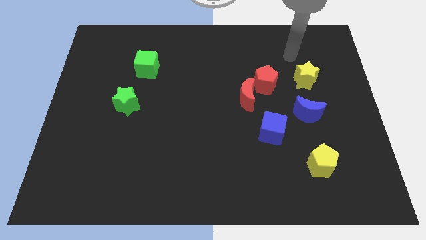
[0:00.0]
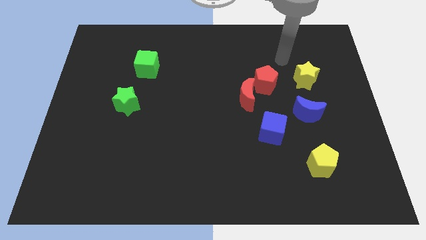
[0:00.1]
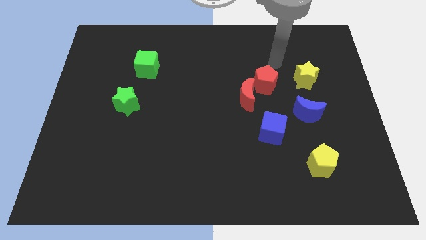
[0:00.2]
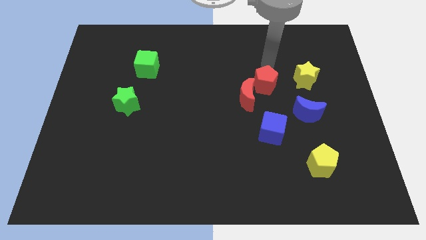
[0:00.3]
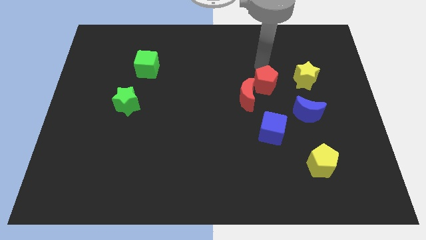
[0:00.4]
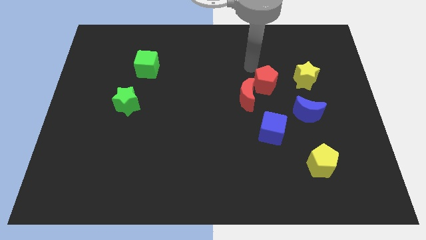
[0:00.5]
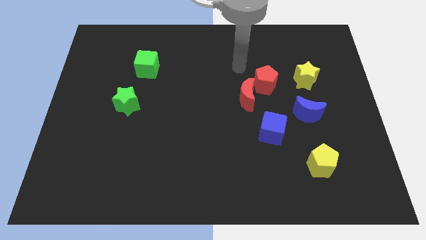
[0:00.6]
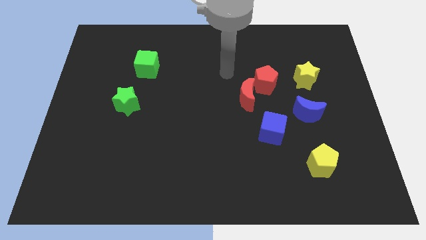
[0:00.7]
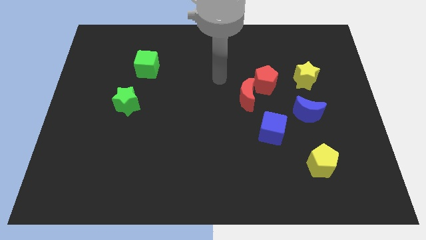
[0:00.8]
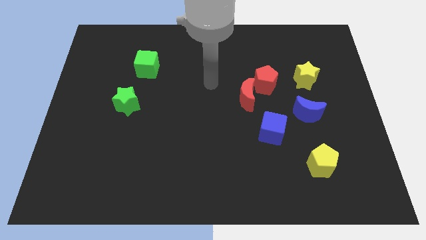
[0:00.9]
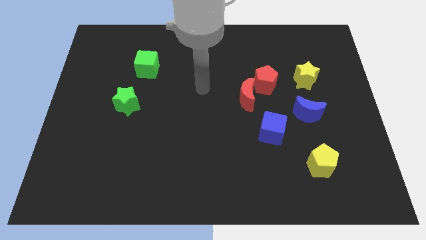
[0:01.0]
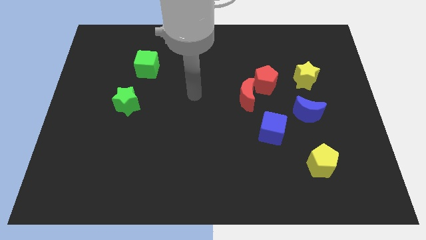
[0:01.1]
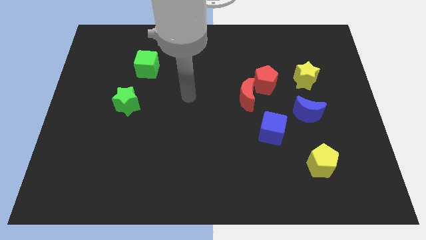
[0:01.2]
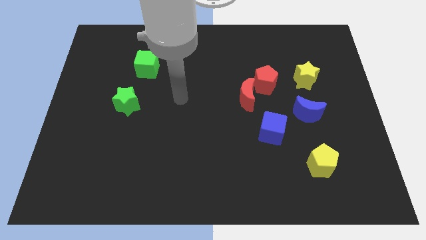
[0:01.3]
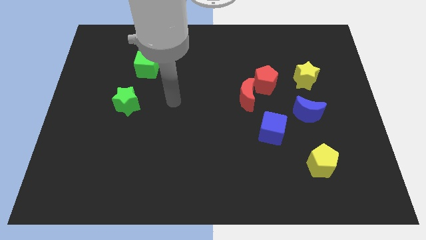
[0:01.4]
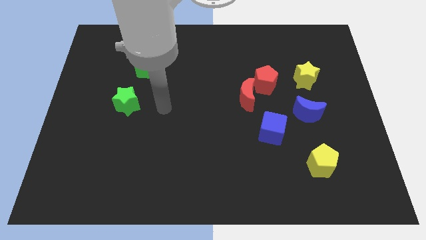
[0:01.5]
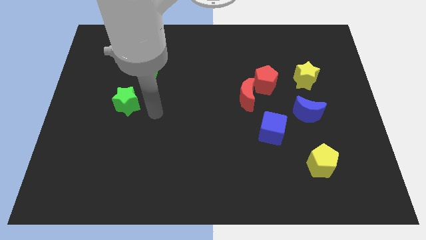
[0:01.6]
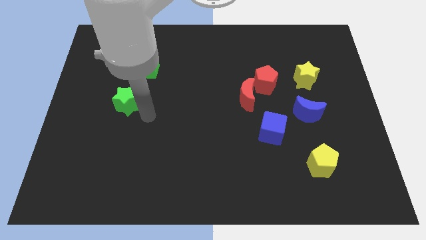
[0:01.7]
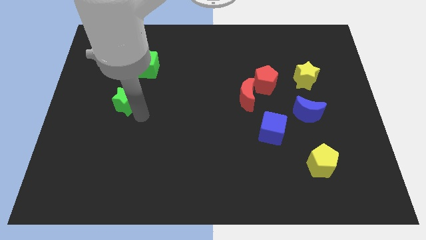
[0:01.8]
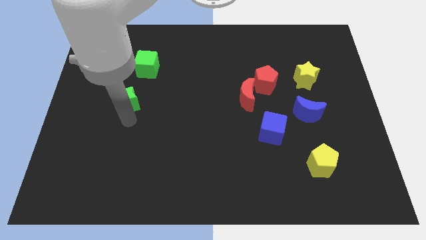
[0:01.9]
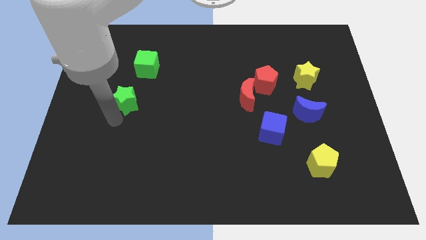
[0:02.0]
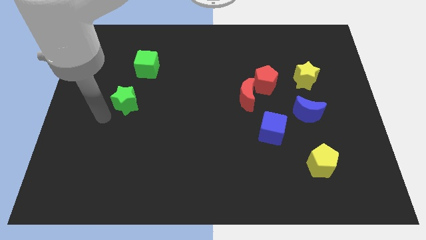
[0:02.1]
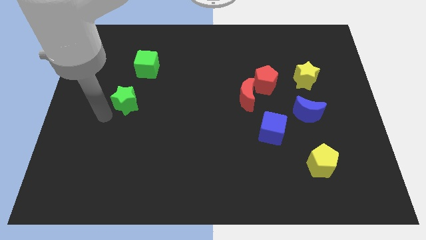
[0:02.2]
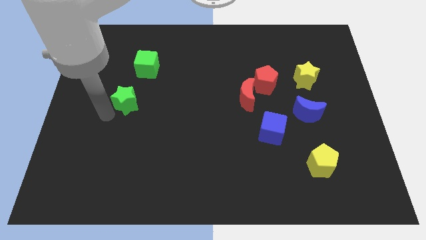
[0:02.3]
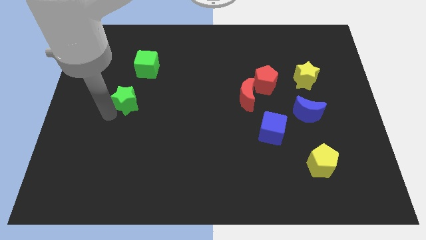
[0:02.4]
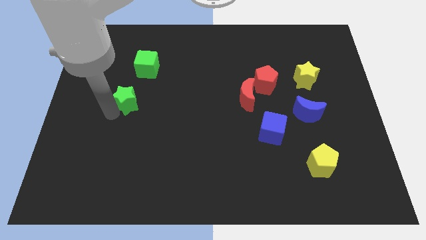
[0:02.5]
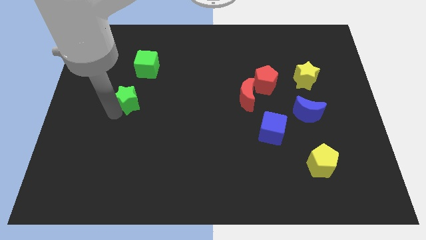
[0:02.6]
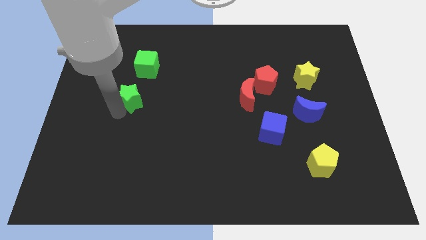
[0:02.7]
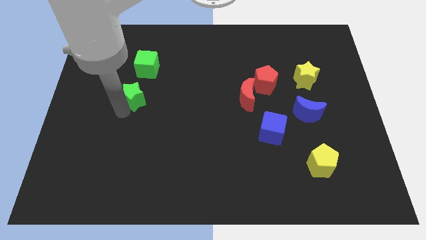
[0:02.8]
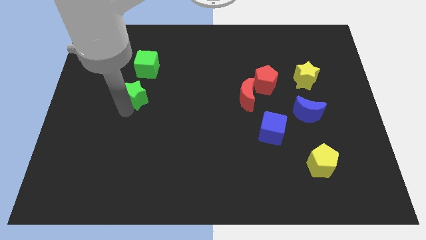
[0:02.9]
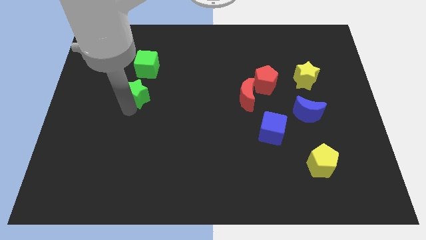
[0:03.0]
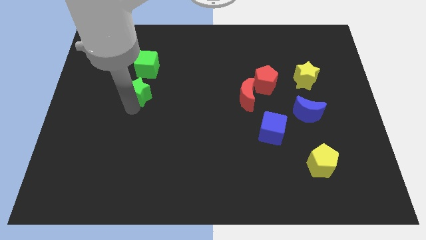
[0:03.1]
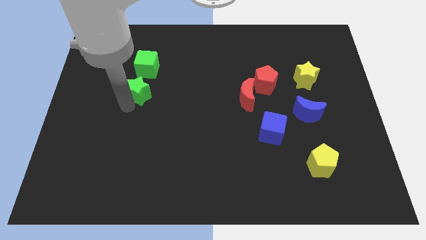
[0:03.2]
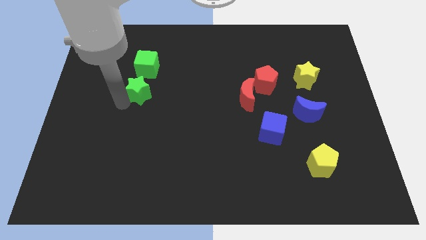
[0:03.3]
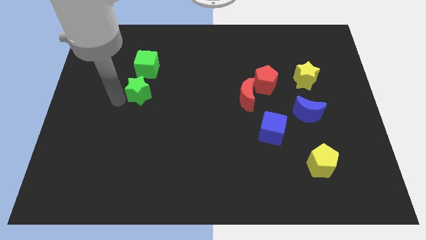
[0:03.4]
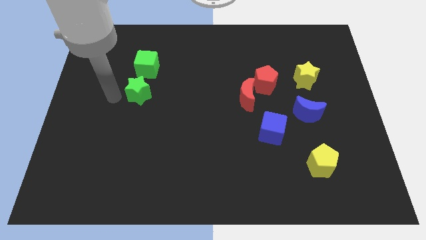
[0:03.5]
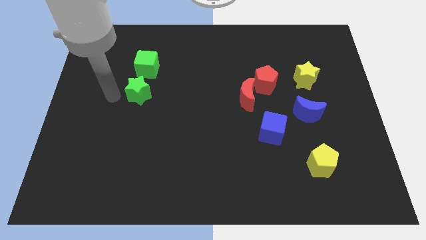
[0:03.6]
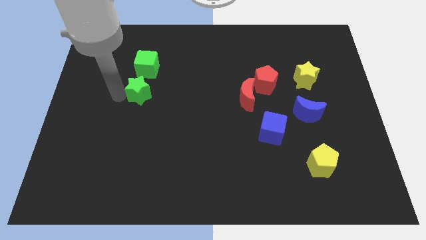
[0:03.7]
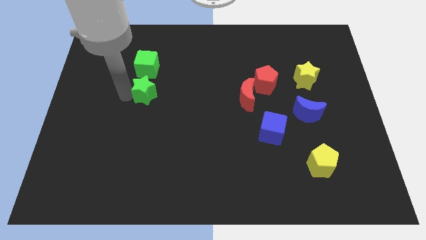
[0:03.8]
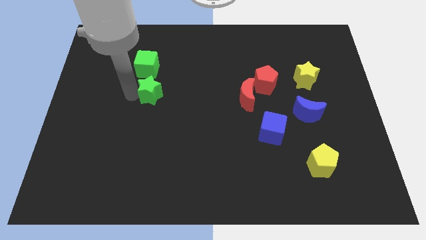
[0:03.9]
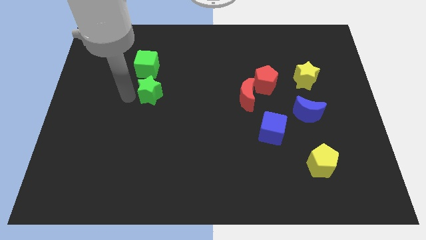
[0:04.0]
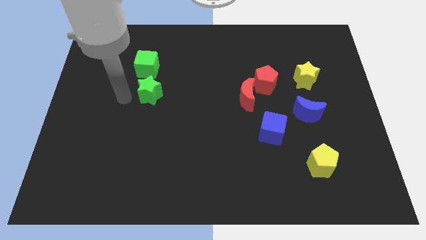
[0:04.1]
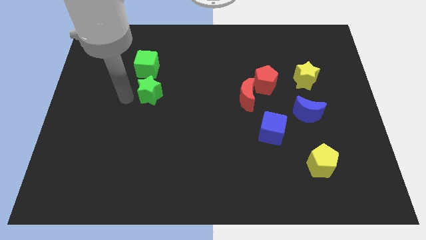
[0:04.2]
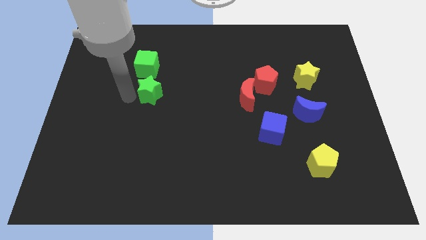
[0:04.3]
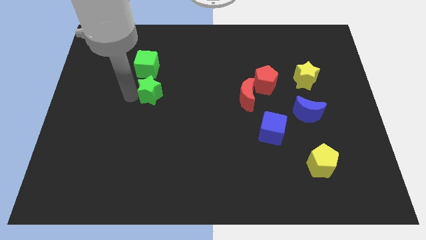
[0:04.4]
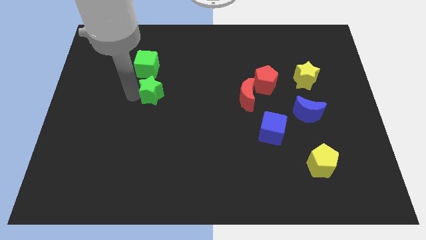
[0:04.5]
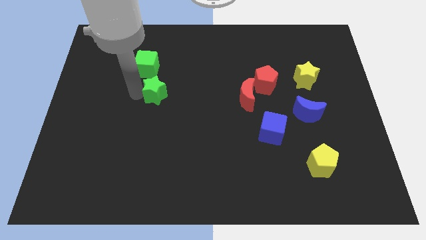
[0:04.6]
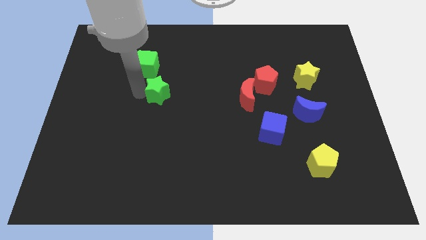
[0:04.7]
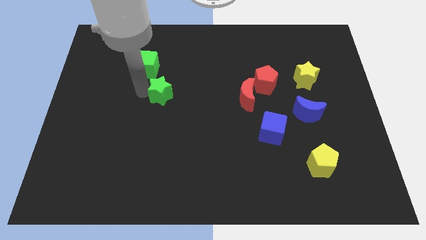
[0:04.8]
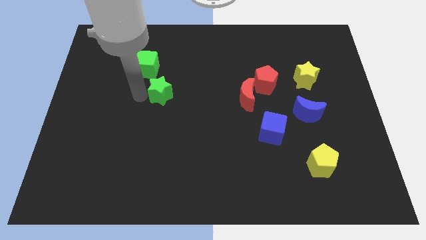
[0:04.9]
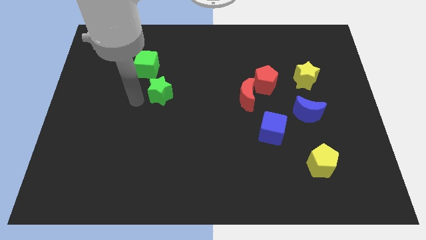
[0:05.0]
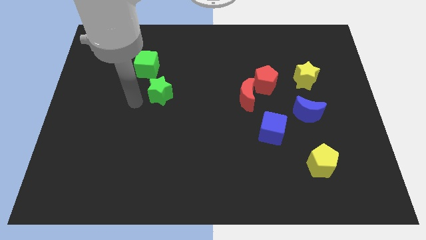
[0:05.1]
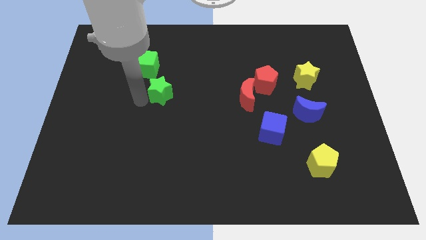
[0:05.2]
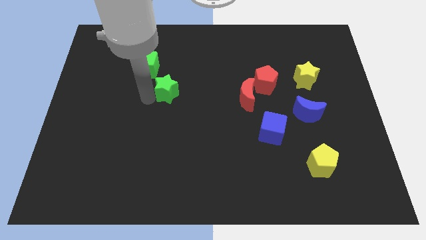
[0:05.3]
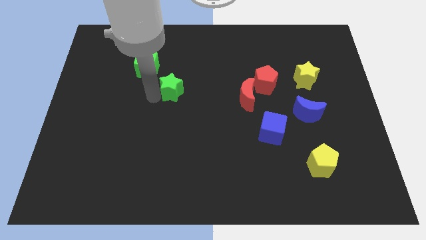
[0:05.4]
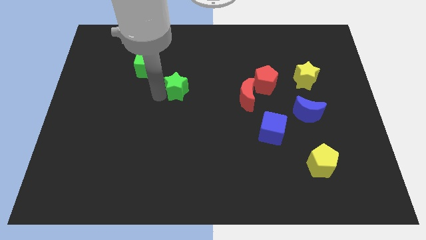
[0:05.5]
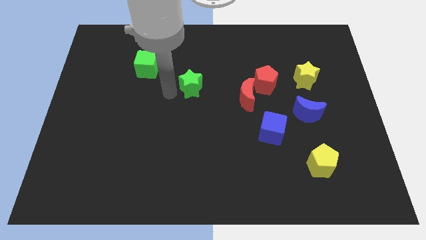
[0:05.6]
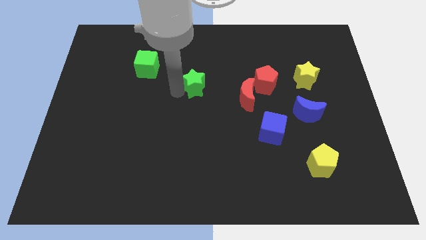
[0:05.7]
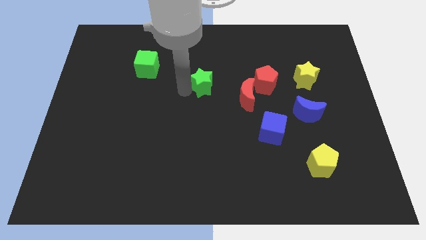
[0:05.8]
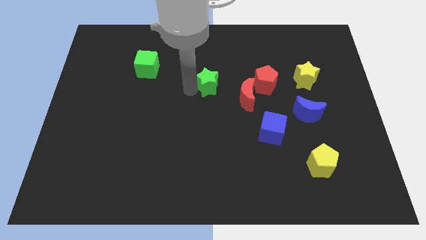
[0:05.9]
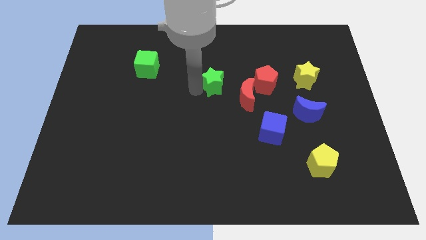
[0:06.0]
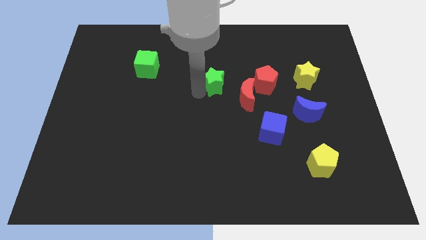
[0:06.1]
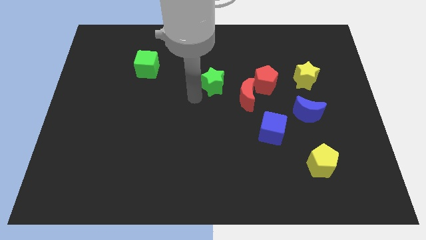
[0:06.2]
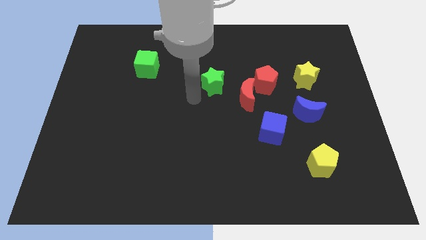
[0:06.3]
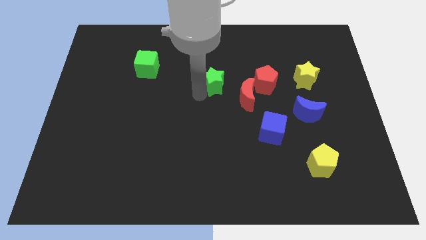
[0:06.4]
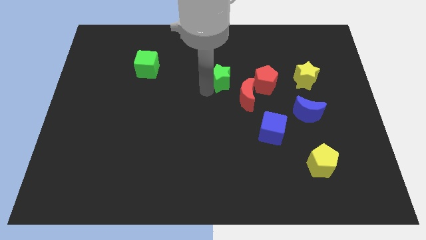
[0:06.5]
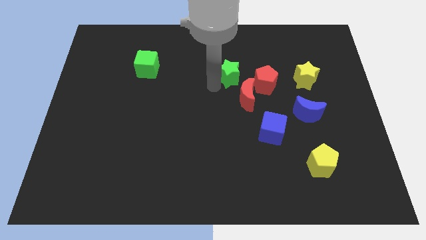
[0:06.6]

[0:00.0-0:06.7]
move the green star to the top side of the red moon

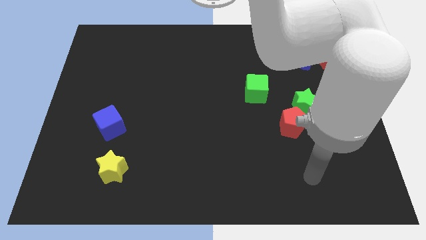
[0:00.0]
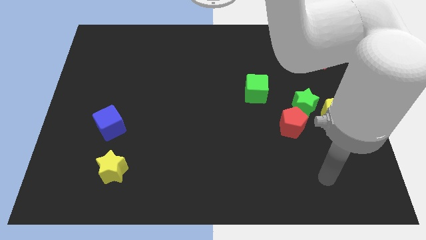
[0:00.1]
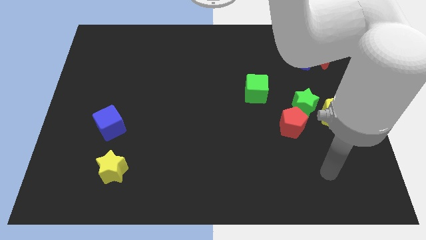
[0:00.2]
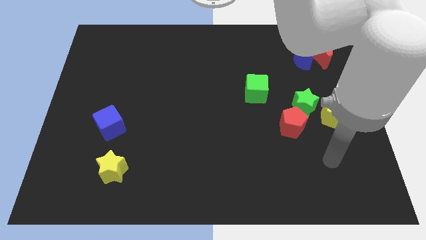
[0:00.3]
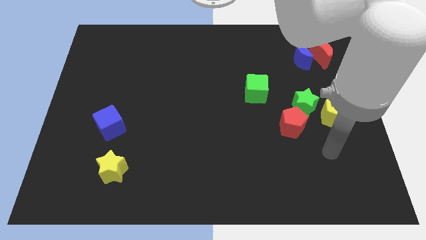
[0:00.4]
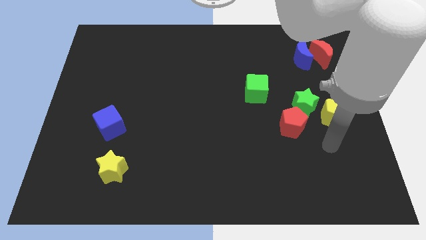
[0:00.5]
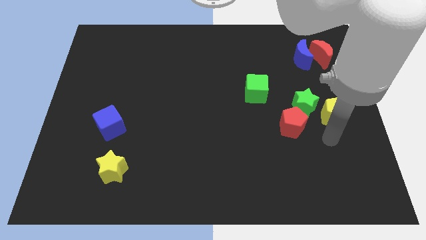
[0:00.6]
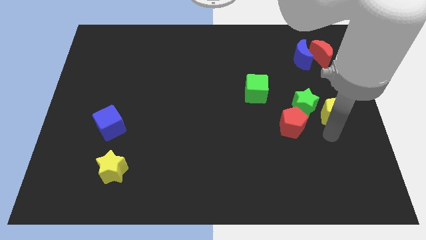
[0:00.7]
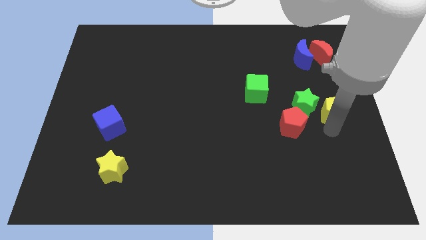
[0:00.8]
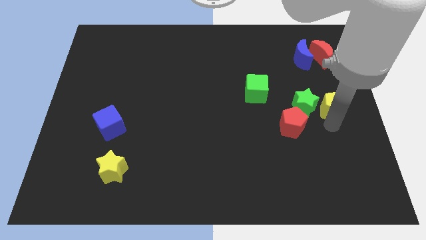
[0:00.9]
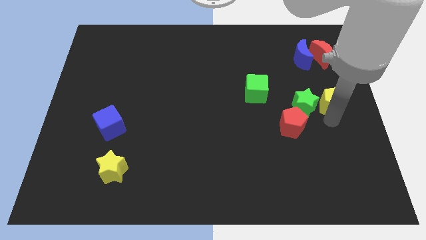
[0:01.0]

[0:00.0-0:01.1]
slide the yellow pentagon to the bottom side of the red moon
